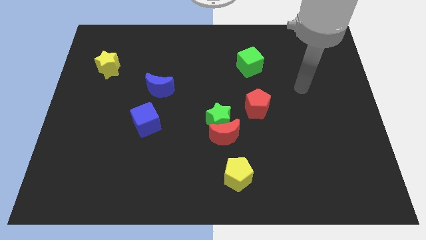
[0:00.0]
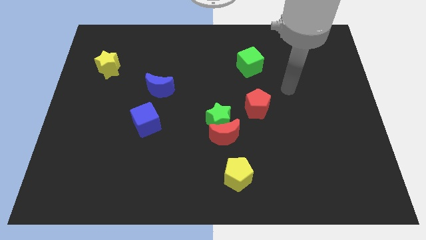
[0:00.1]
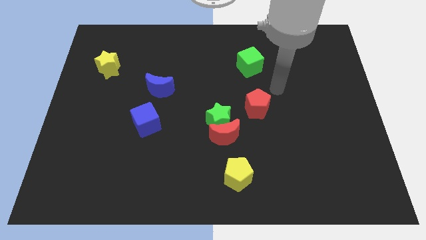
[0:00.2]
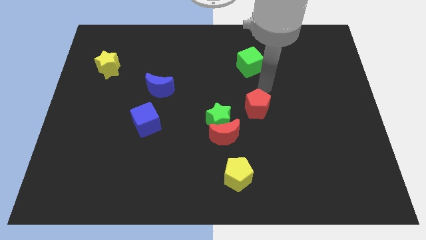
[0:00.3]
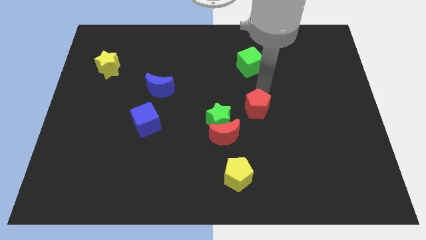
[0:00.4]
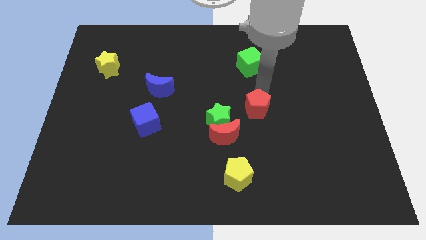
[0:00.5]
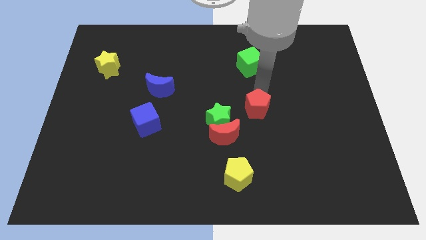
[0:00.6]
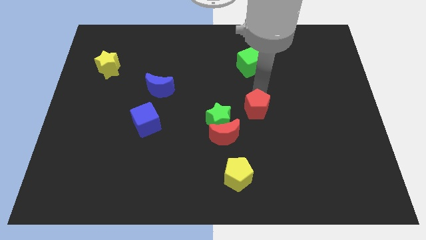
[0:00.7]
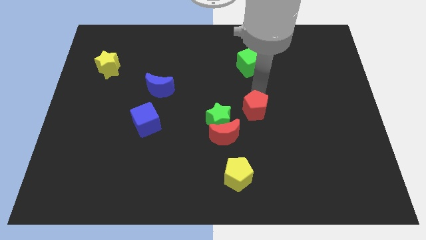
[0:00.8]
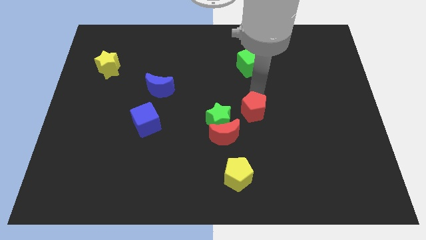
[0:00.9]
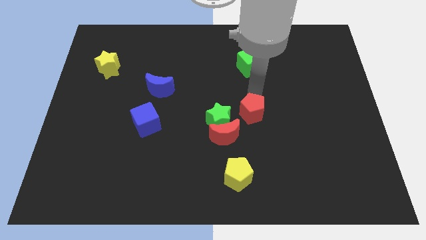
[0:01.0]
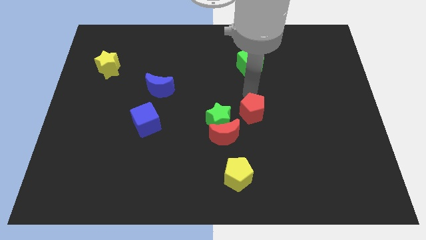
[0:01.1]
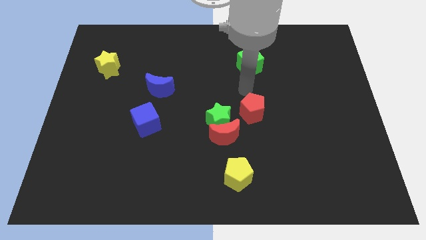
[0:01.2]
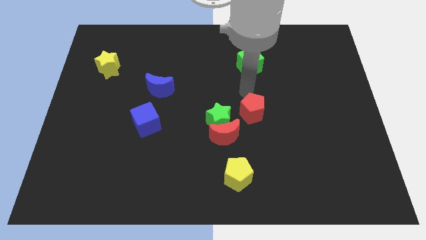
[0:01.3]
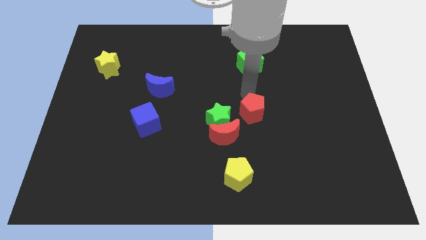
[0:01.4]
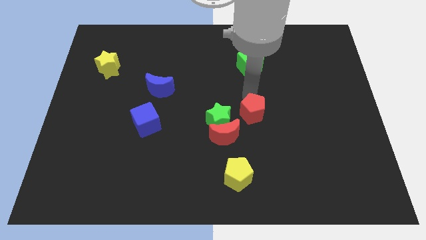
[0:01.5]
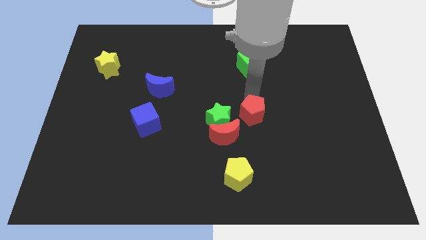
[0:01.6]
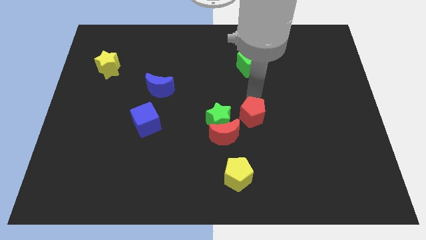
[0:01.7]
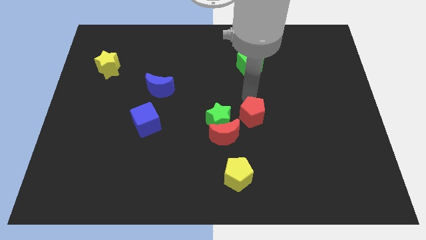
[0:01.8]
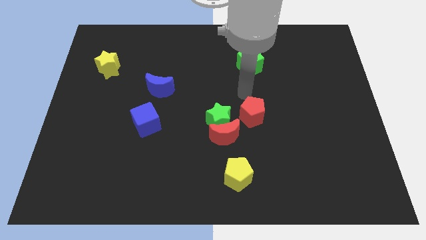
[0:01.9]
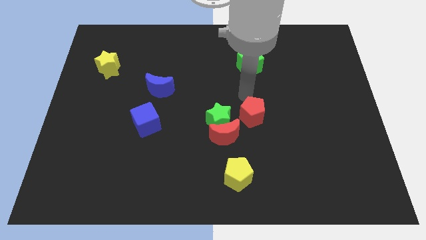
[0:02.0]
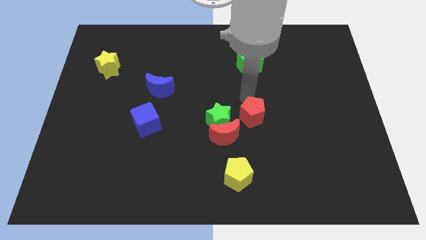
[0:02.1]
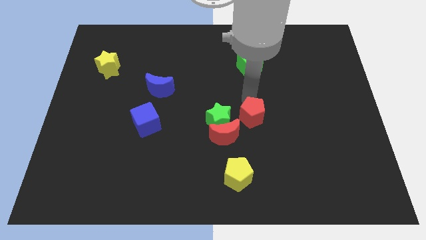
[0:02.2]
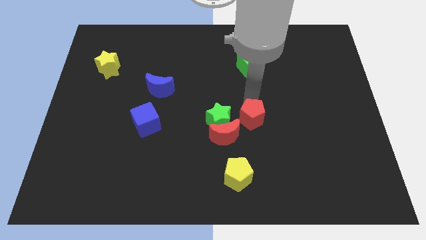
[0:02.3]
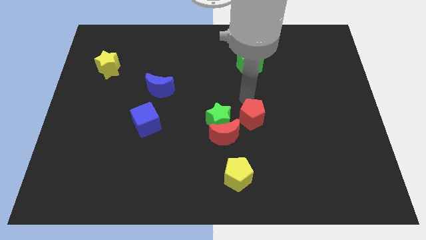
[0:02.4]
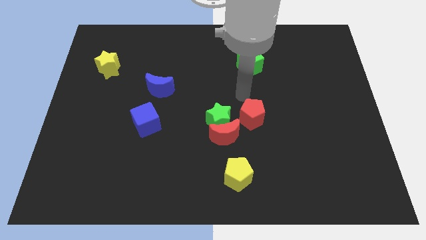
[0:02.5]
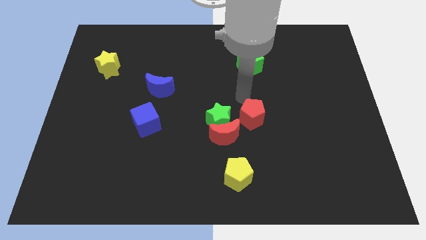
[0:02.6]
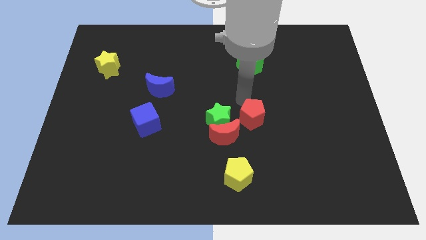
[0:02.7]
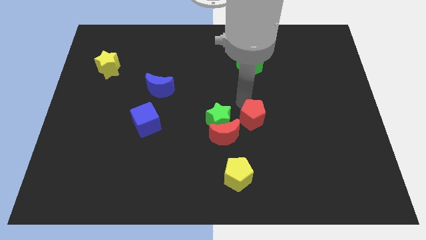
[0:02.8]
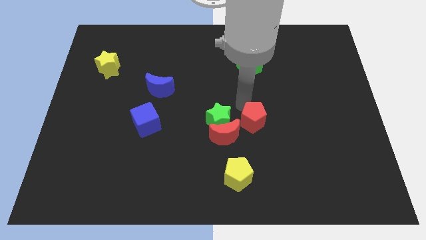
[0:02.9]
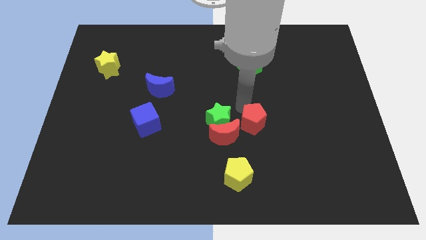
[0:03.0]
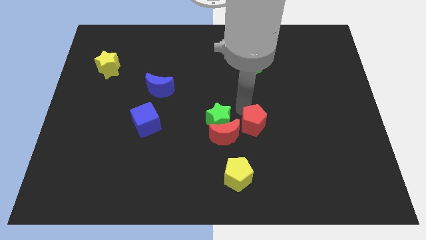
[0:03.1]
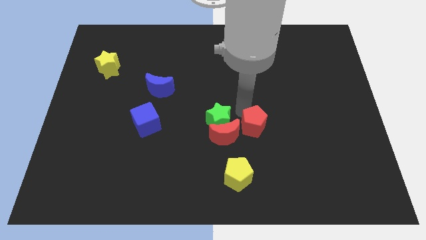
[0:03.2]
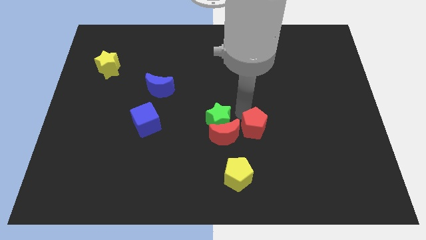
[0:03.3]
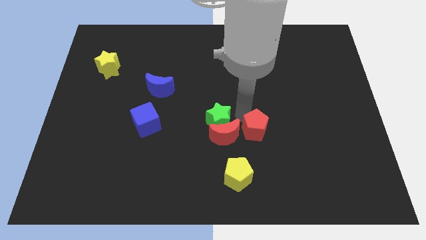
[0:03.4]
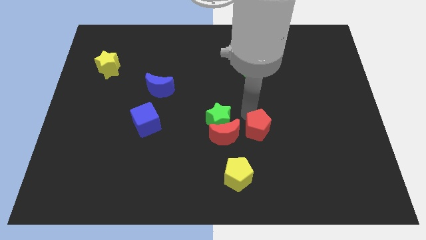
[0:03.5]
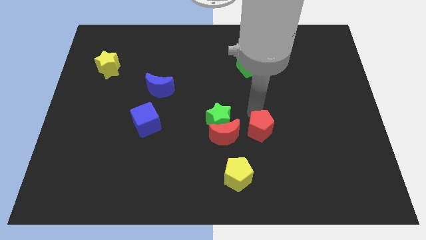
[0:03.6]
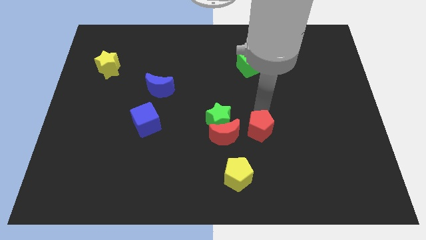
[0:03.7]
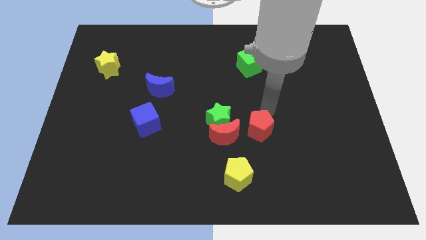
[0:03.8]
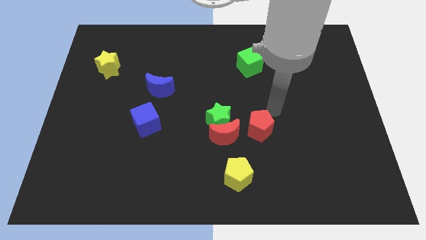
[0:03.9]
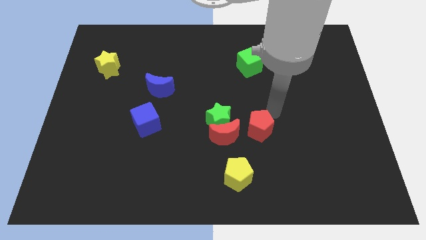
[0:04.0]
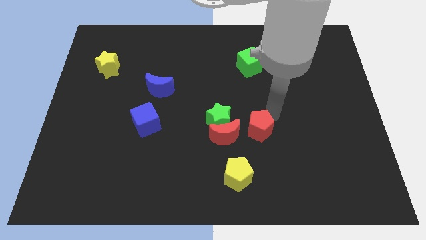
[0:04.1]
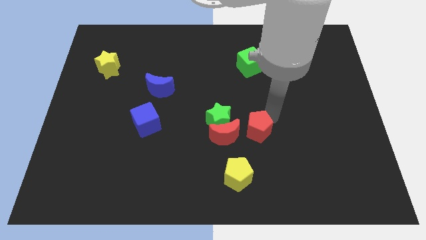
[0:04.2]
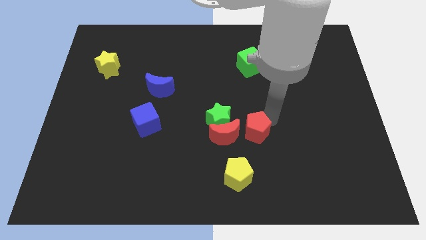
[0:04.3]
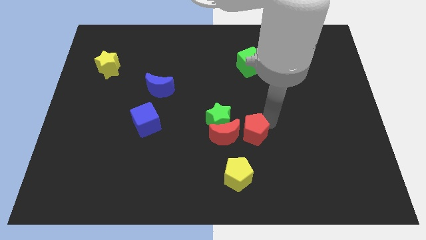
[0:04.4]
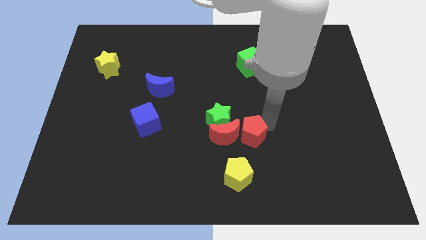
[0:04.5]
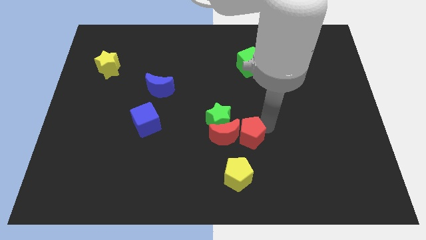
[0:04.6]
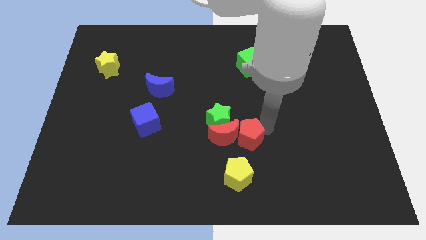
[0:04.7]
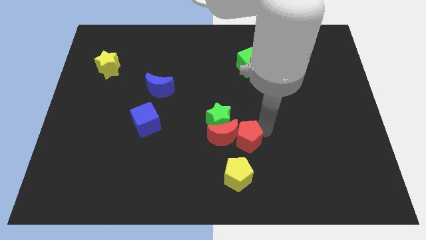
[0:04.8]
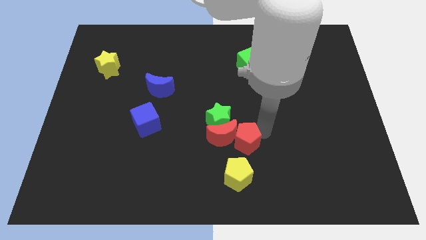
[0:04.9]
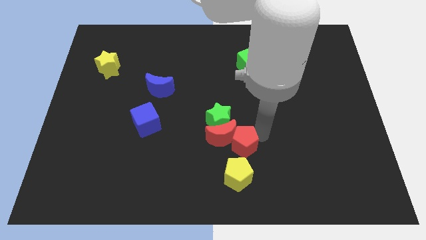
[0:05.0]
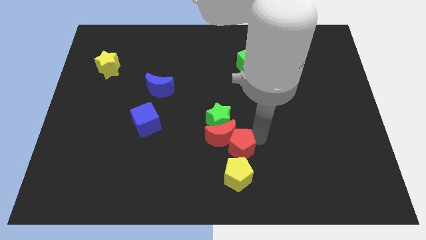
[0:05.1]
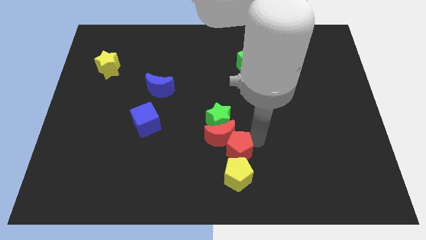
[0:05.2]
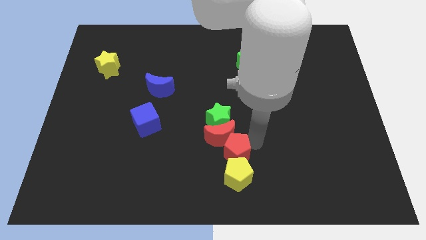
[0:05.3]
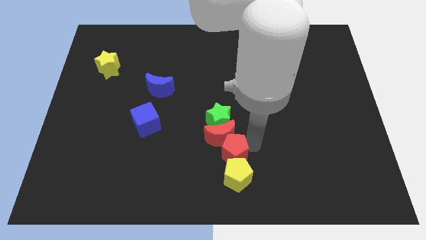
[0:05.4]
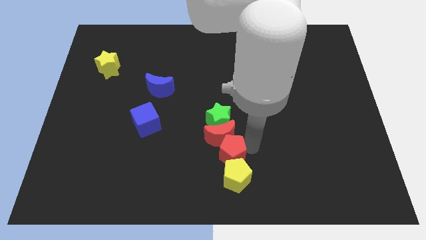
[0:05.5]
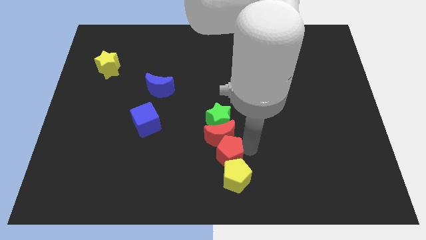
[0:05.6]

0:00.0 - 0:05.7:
slide the red pentagon to the bottom side
